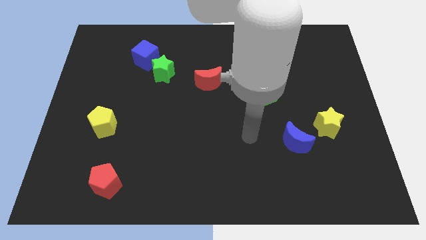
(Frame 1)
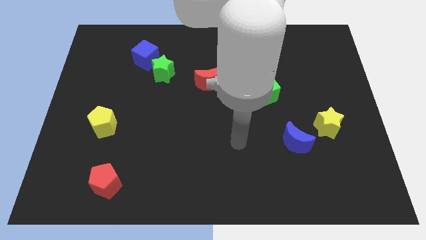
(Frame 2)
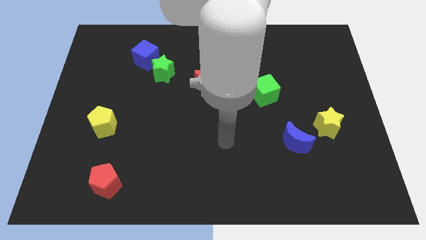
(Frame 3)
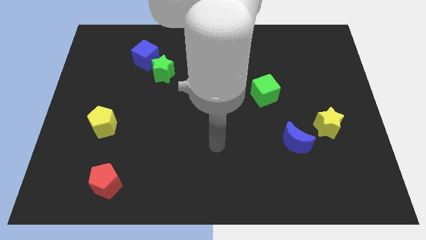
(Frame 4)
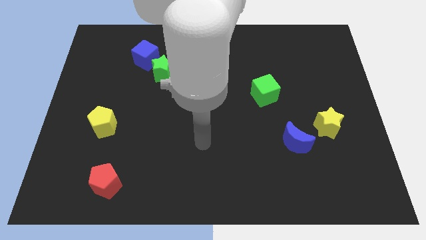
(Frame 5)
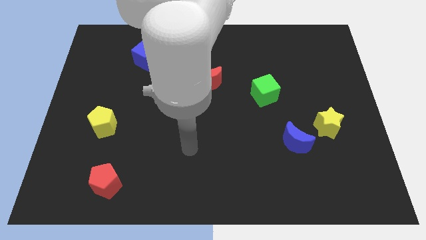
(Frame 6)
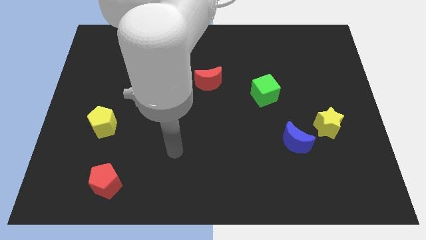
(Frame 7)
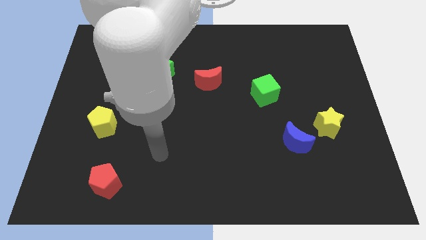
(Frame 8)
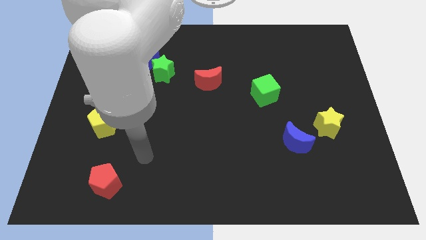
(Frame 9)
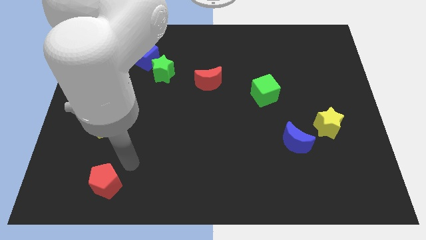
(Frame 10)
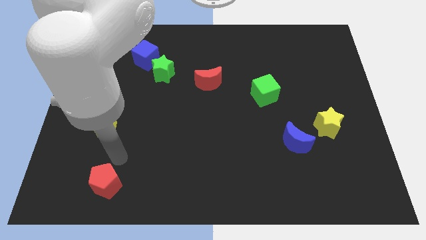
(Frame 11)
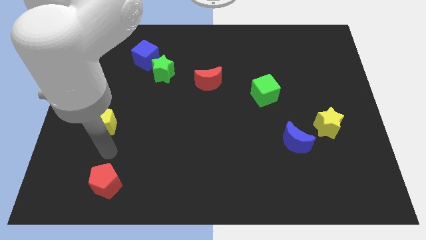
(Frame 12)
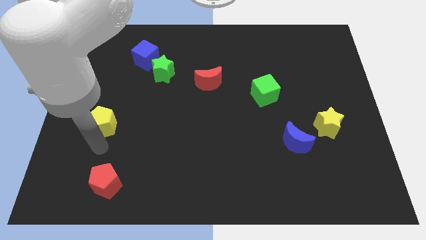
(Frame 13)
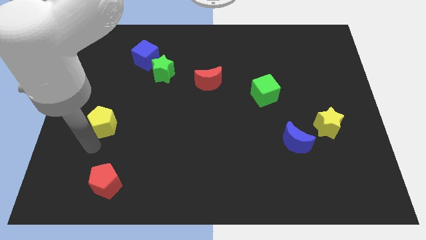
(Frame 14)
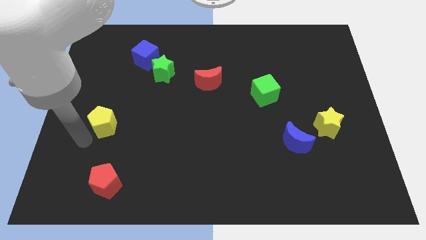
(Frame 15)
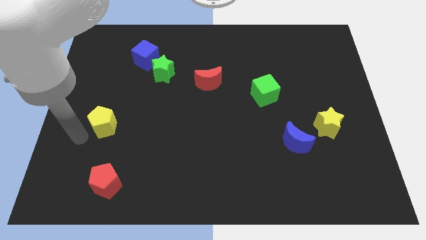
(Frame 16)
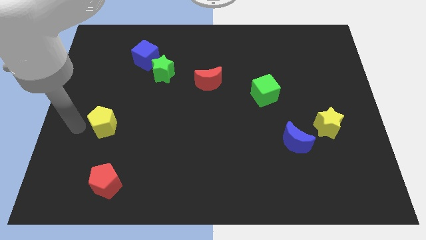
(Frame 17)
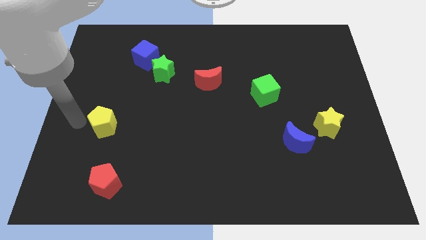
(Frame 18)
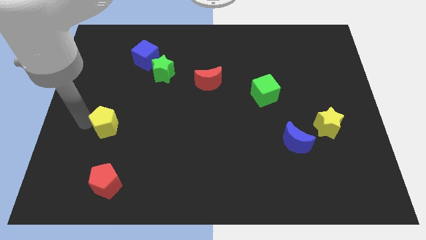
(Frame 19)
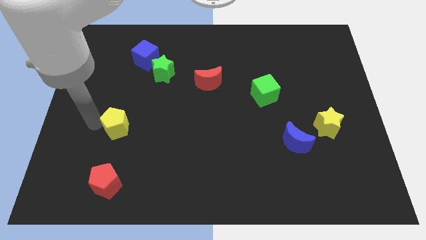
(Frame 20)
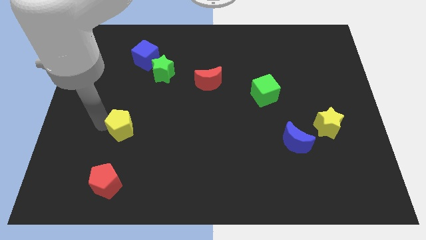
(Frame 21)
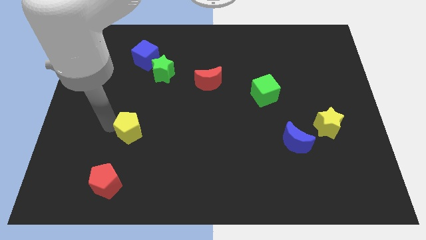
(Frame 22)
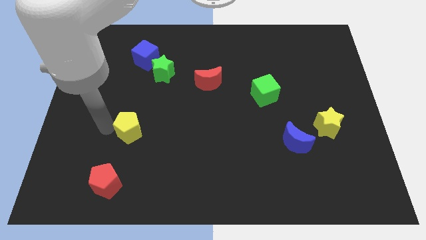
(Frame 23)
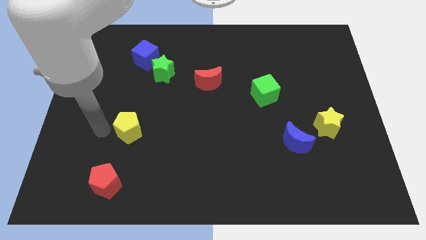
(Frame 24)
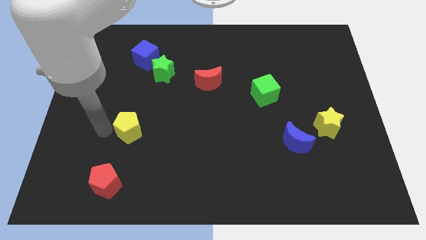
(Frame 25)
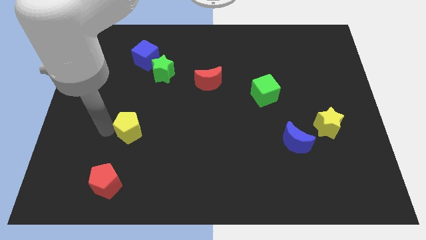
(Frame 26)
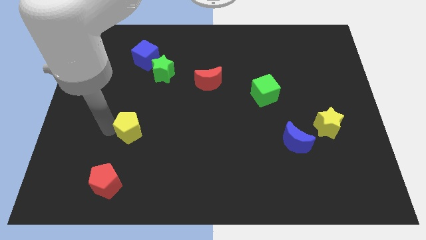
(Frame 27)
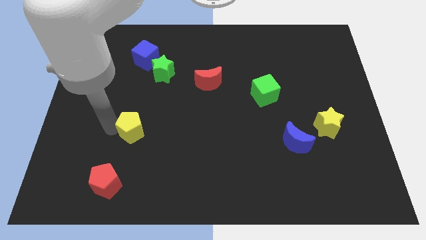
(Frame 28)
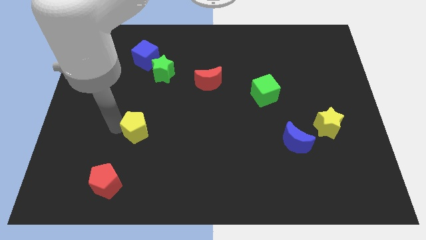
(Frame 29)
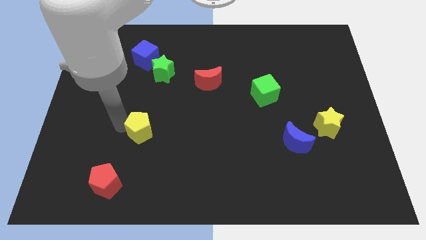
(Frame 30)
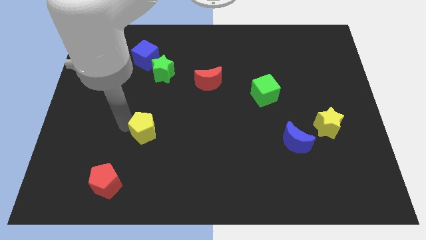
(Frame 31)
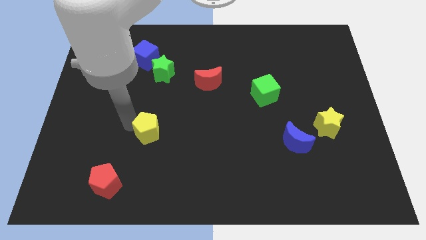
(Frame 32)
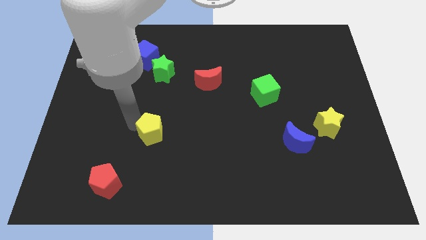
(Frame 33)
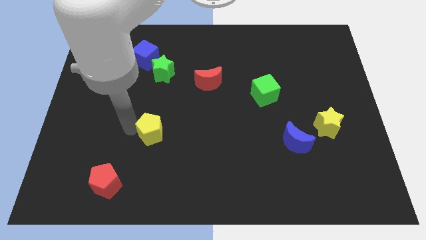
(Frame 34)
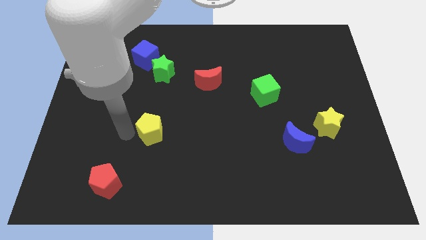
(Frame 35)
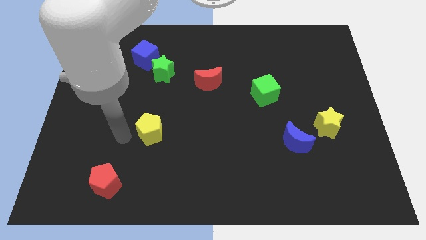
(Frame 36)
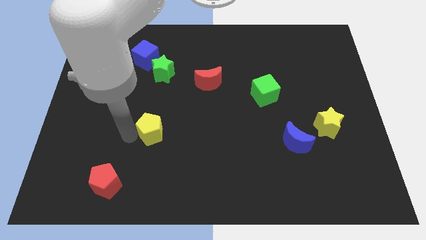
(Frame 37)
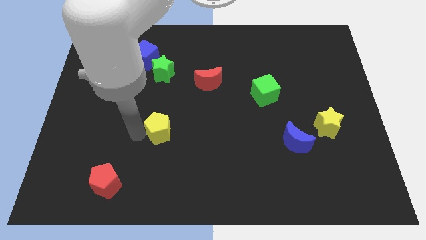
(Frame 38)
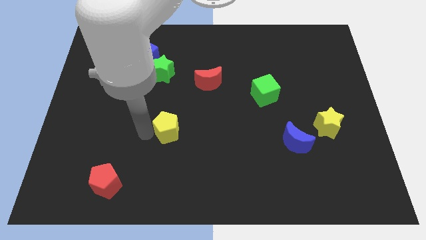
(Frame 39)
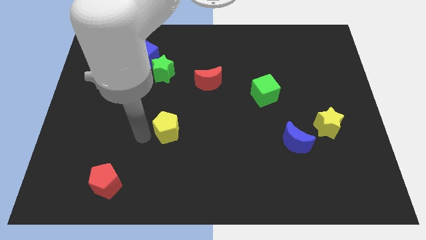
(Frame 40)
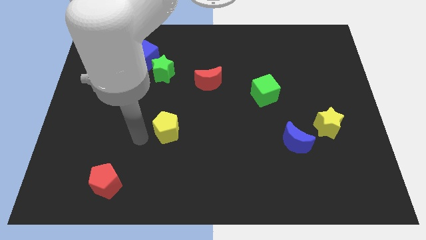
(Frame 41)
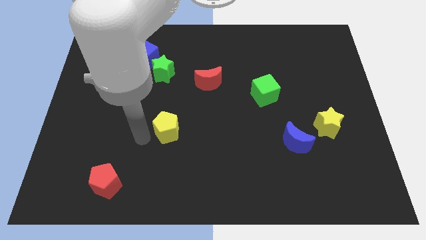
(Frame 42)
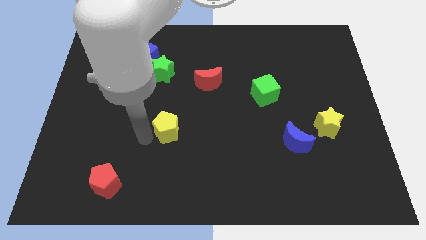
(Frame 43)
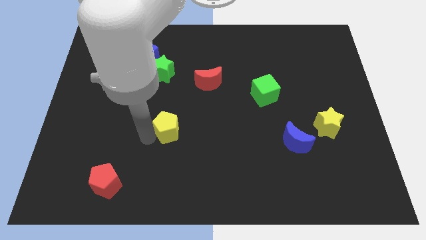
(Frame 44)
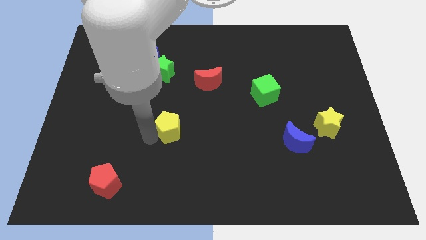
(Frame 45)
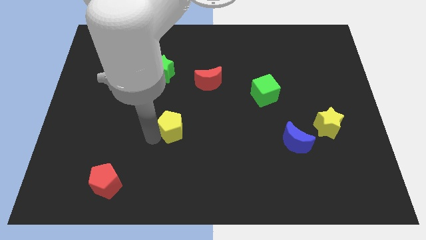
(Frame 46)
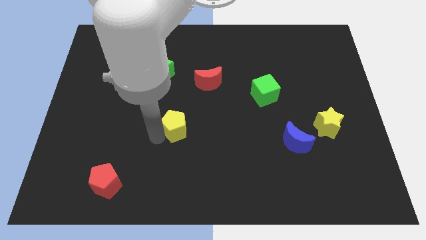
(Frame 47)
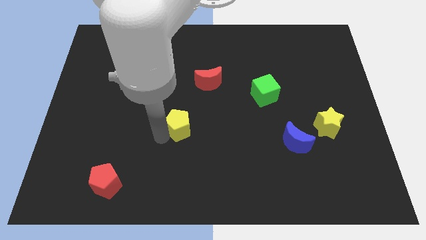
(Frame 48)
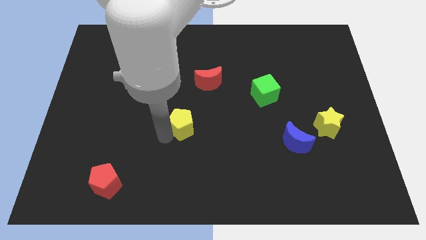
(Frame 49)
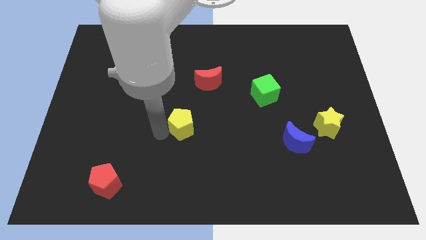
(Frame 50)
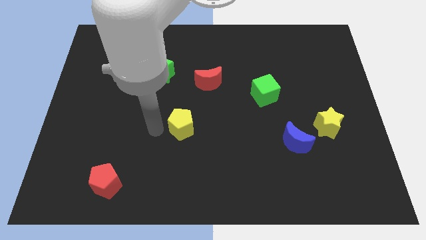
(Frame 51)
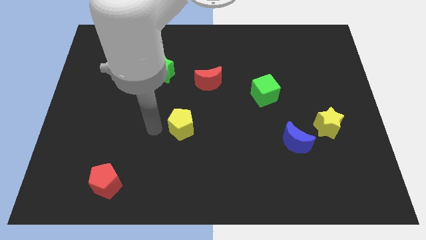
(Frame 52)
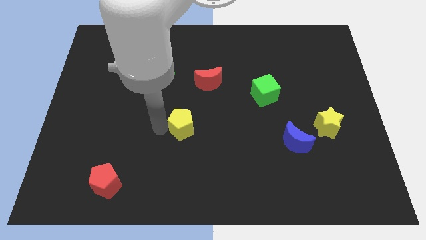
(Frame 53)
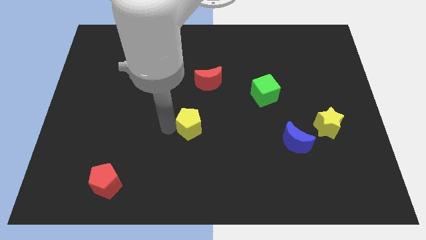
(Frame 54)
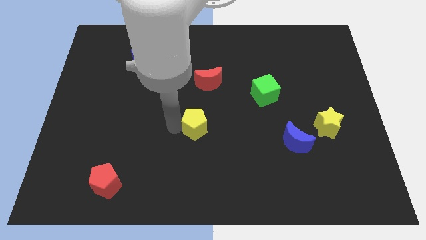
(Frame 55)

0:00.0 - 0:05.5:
move the yellow pentagon right

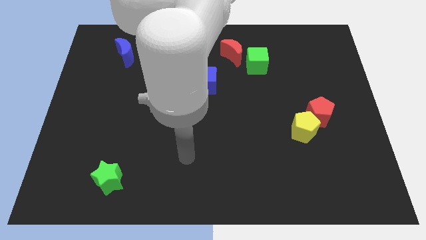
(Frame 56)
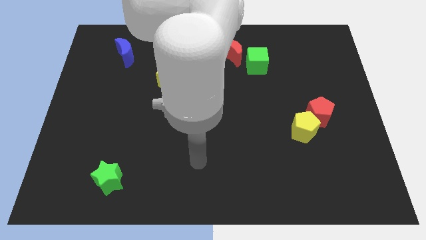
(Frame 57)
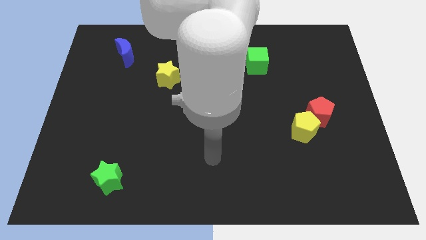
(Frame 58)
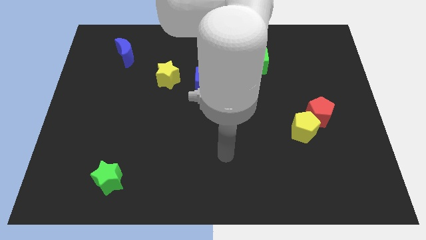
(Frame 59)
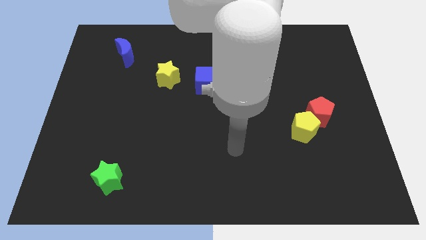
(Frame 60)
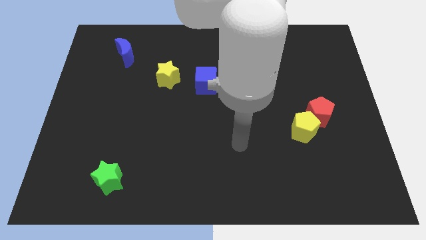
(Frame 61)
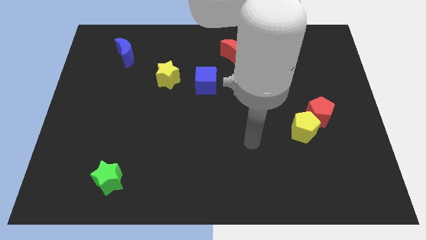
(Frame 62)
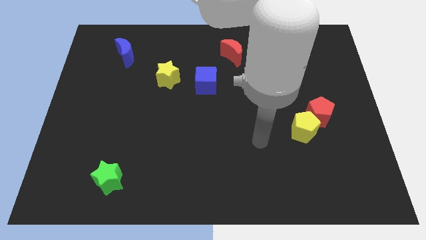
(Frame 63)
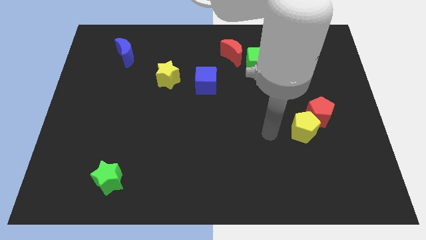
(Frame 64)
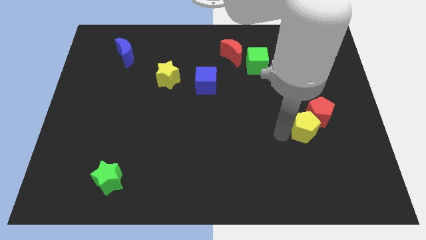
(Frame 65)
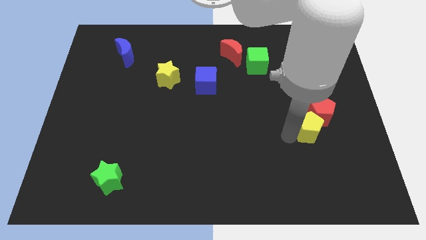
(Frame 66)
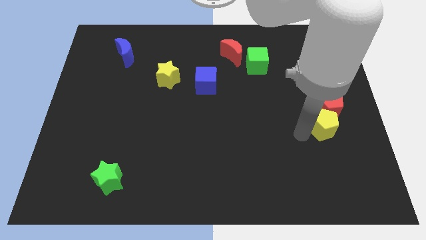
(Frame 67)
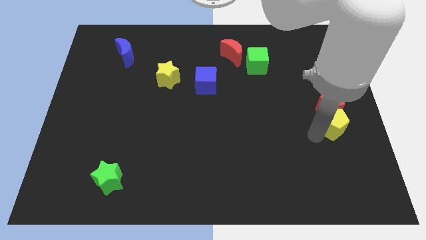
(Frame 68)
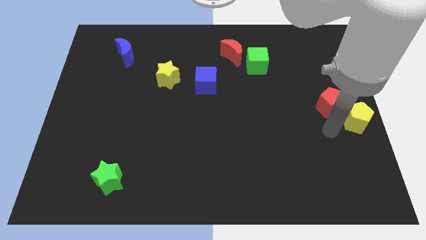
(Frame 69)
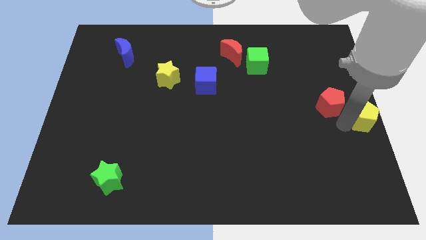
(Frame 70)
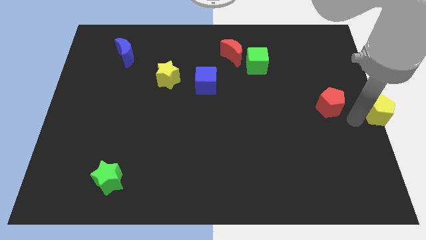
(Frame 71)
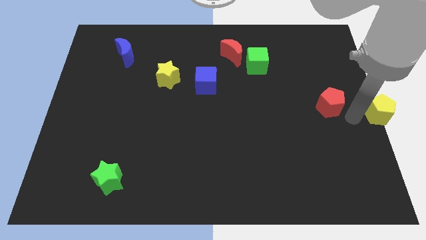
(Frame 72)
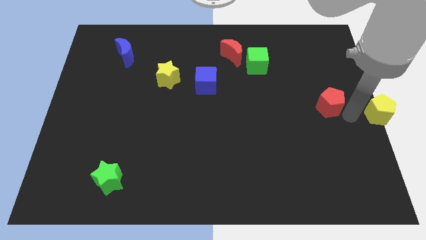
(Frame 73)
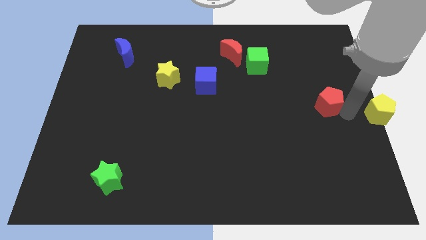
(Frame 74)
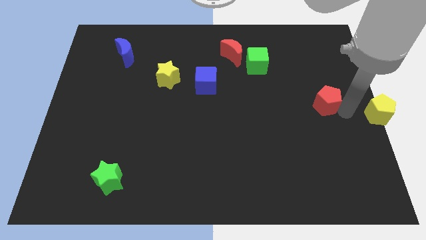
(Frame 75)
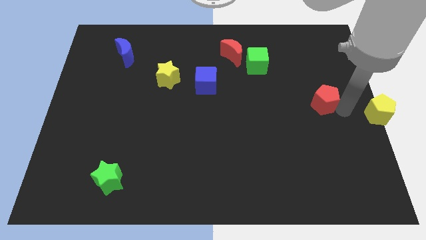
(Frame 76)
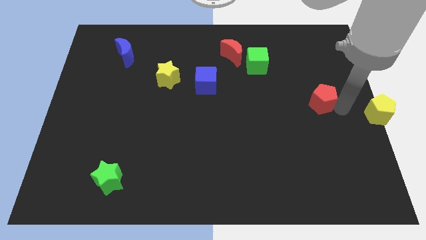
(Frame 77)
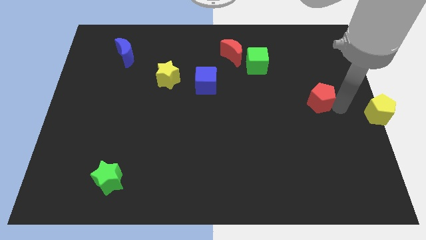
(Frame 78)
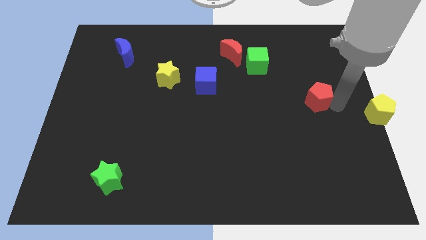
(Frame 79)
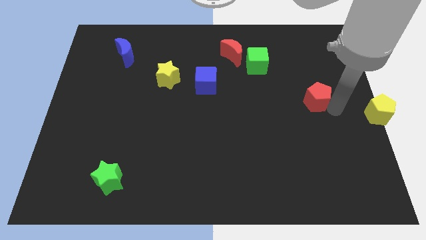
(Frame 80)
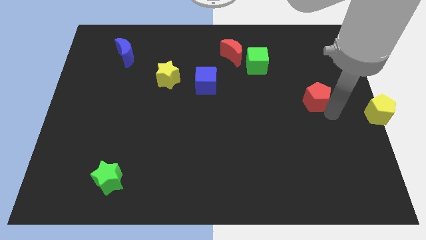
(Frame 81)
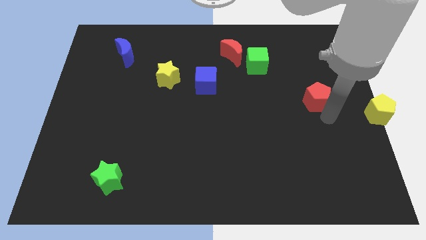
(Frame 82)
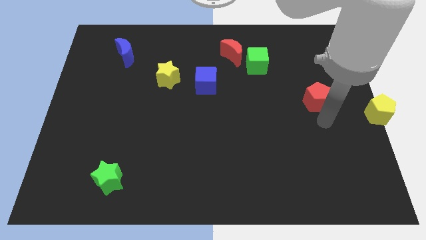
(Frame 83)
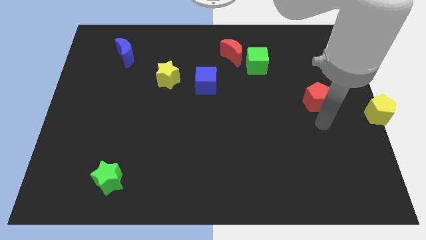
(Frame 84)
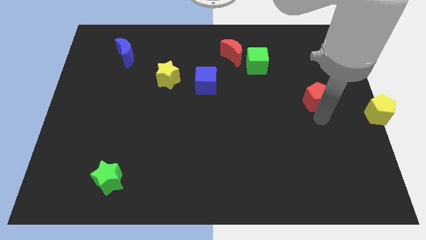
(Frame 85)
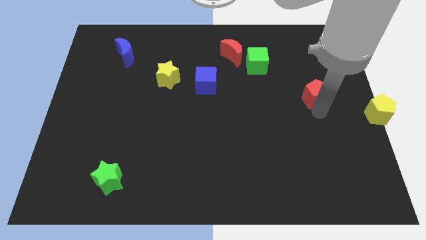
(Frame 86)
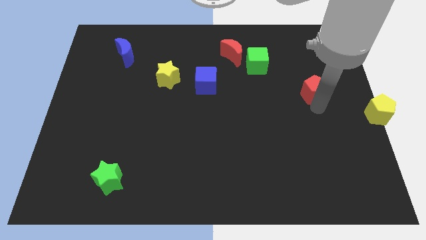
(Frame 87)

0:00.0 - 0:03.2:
slightly move the red pentagon up
